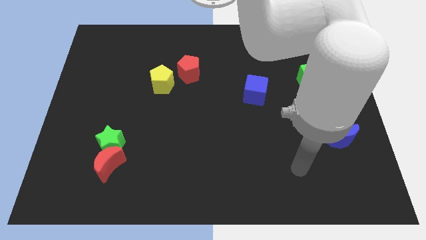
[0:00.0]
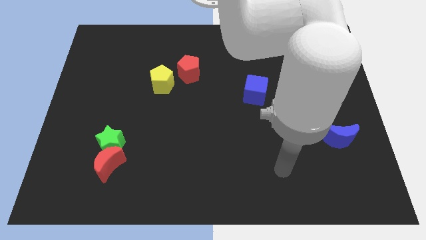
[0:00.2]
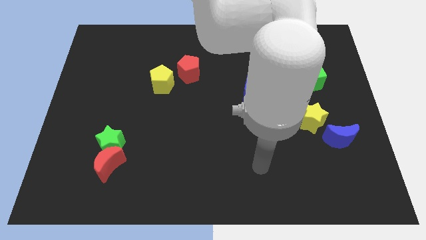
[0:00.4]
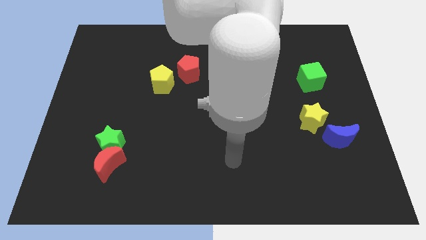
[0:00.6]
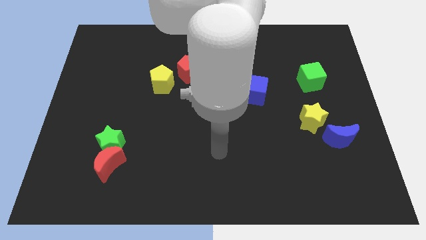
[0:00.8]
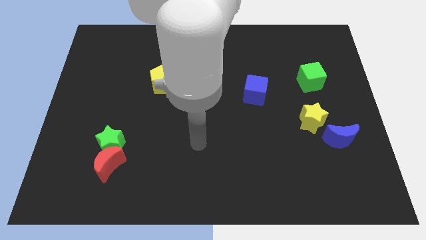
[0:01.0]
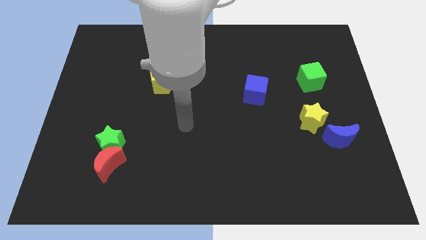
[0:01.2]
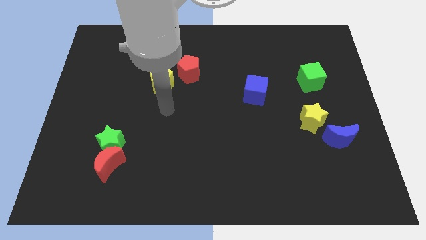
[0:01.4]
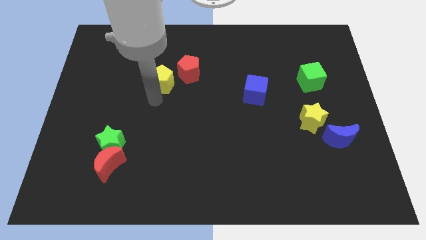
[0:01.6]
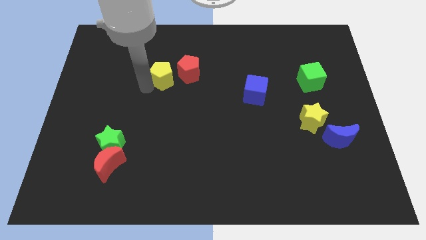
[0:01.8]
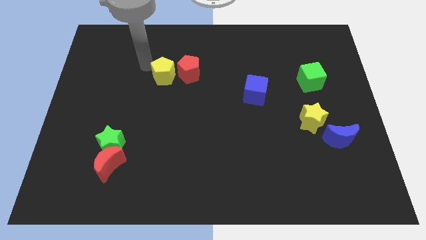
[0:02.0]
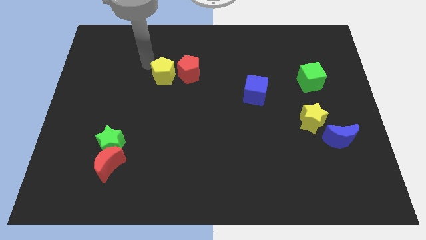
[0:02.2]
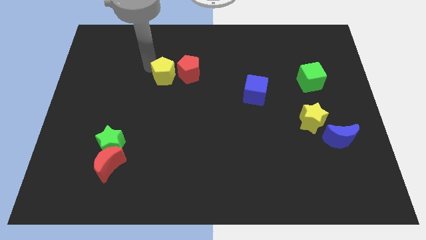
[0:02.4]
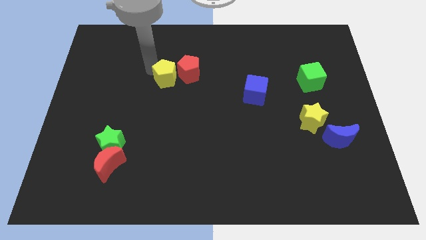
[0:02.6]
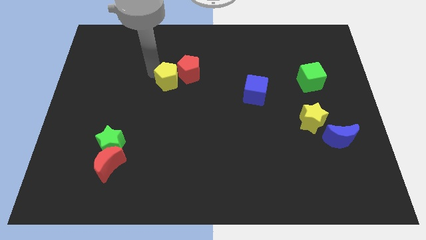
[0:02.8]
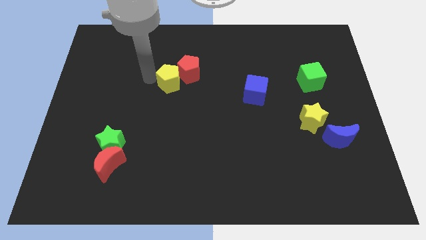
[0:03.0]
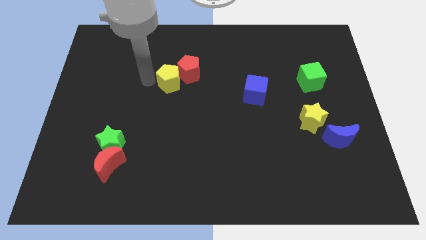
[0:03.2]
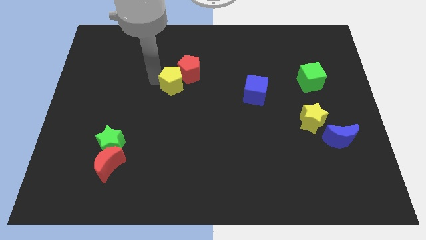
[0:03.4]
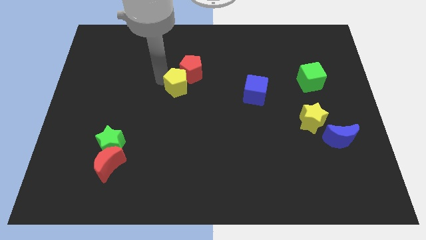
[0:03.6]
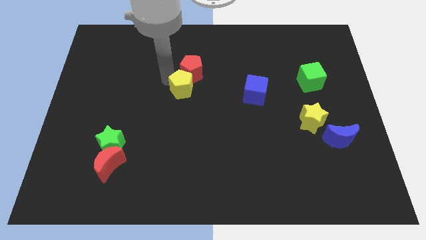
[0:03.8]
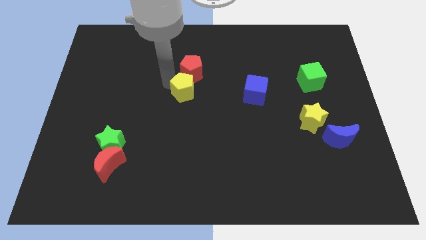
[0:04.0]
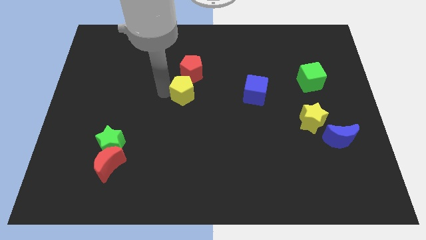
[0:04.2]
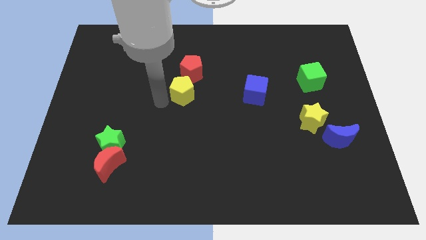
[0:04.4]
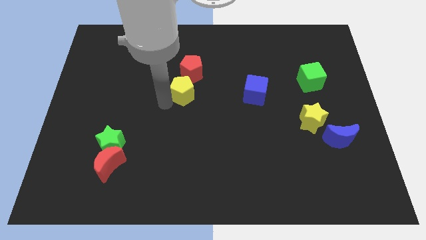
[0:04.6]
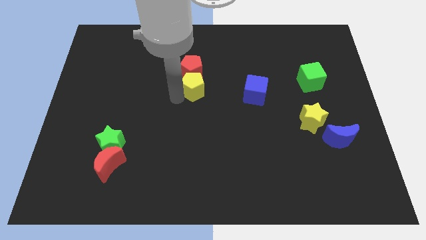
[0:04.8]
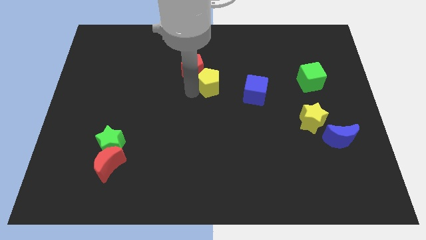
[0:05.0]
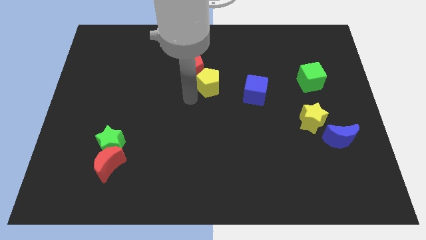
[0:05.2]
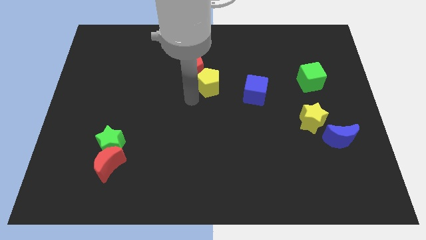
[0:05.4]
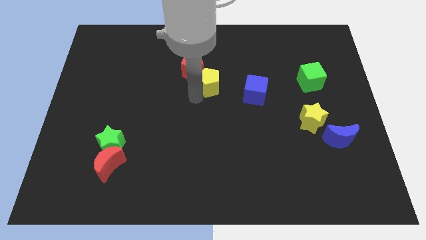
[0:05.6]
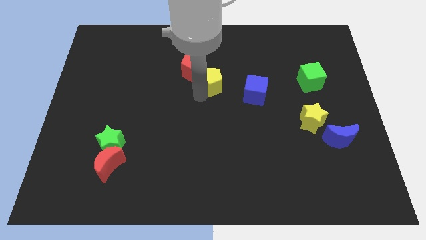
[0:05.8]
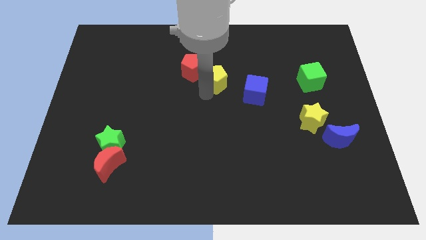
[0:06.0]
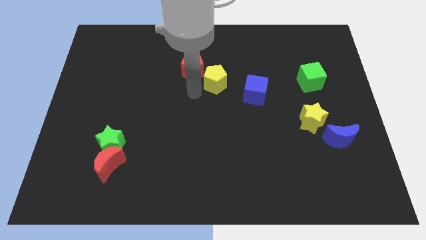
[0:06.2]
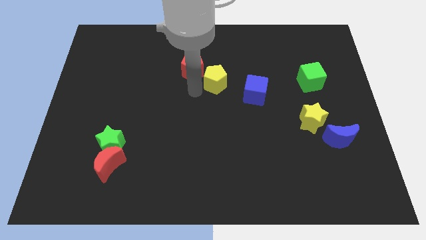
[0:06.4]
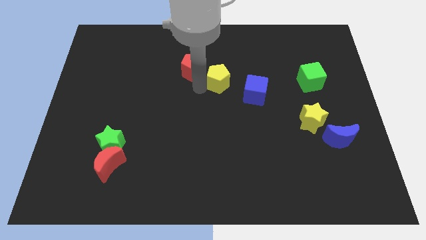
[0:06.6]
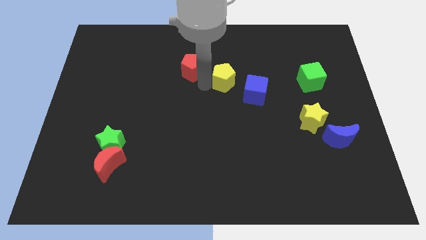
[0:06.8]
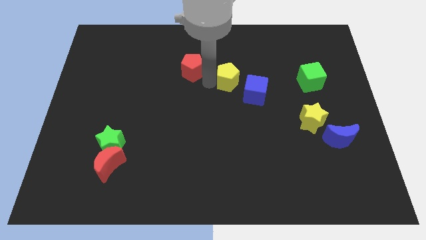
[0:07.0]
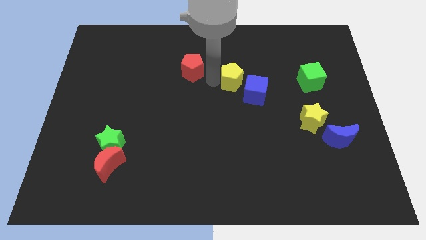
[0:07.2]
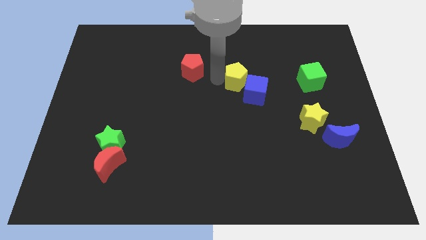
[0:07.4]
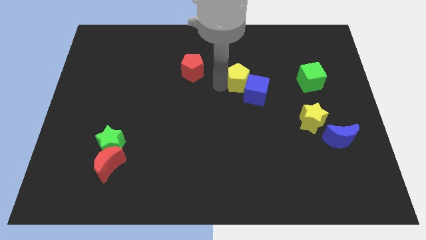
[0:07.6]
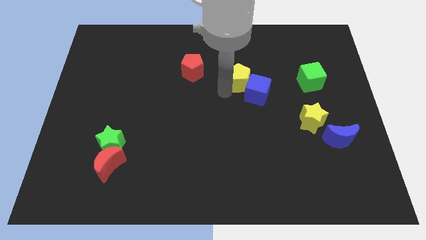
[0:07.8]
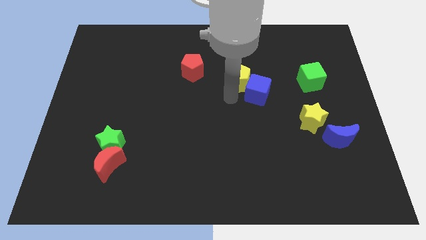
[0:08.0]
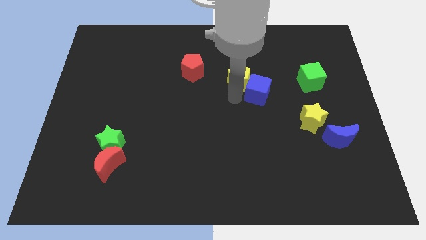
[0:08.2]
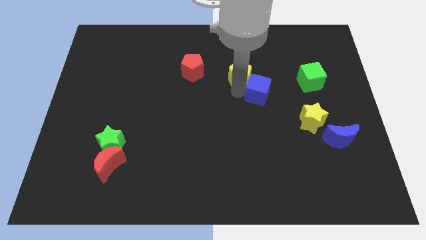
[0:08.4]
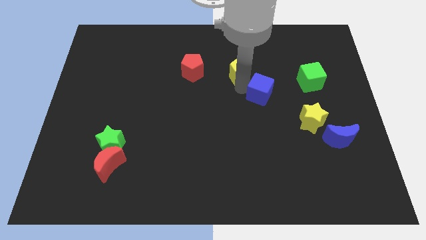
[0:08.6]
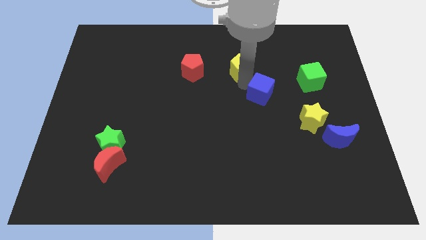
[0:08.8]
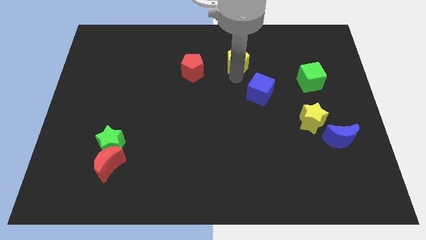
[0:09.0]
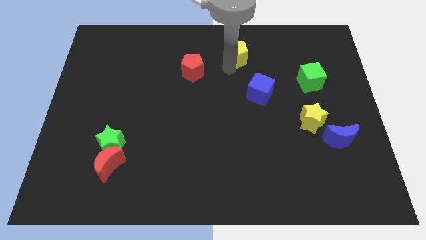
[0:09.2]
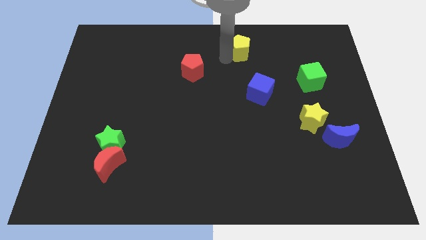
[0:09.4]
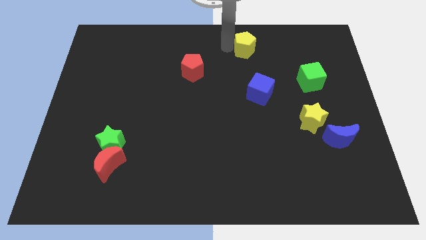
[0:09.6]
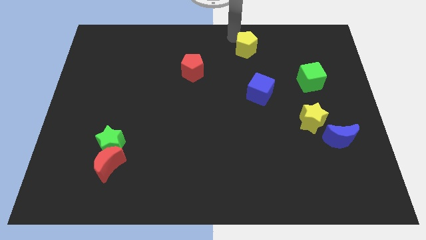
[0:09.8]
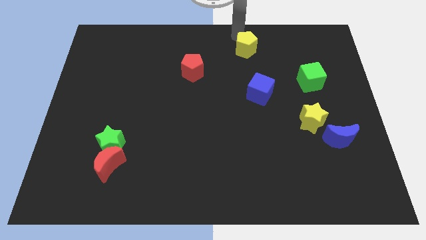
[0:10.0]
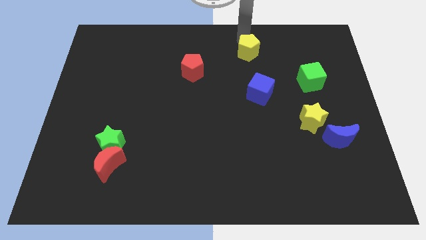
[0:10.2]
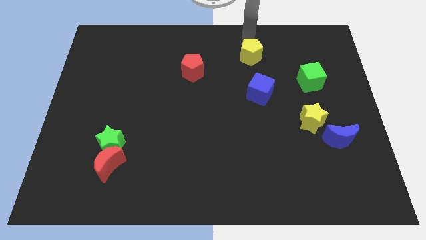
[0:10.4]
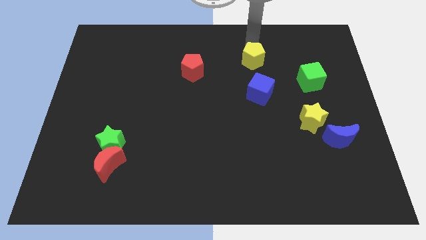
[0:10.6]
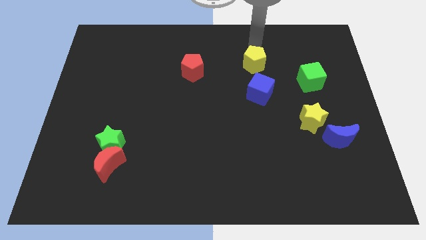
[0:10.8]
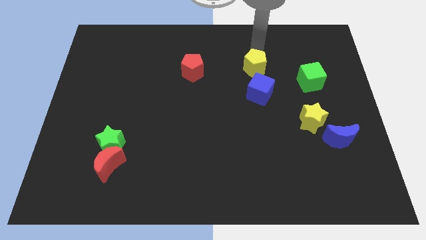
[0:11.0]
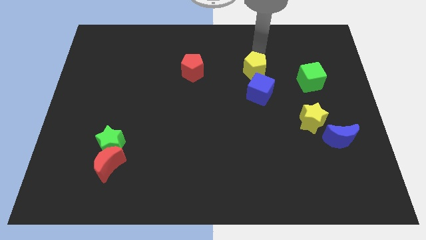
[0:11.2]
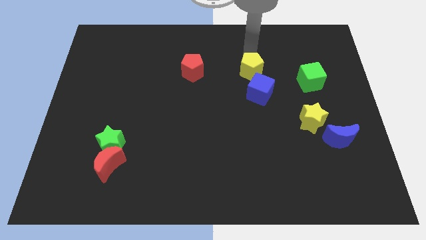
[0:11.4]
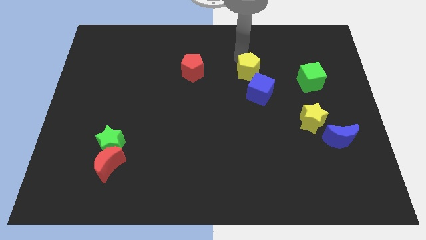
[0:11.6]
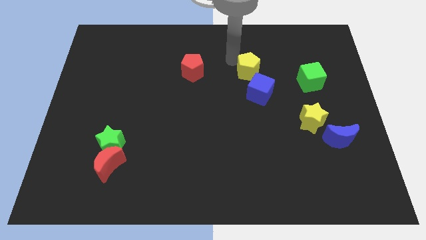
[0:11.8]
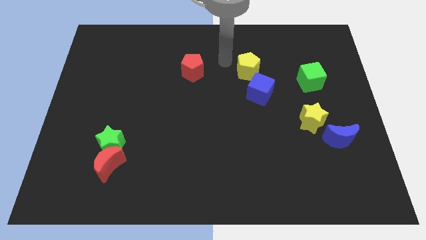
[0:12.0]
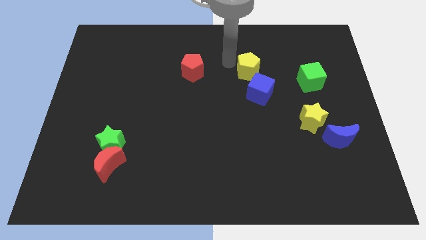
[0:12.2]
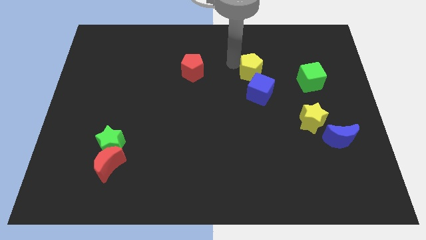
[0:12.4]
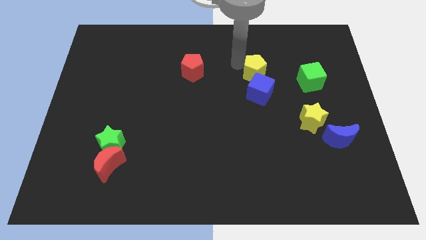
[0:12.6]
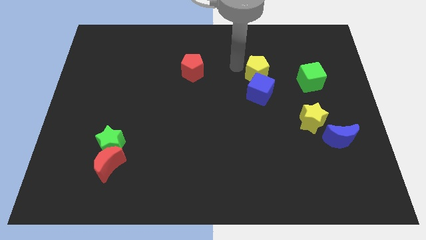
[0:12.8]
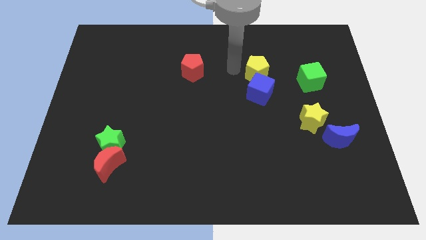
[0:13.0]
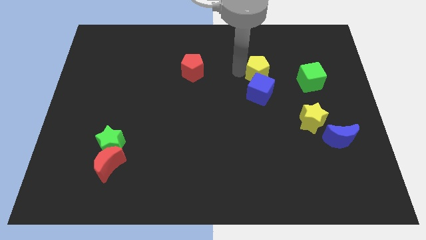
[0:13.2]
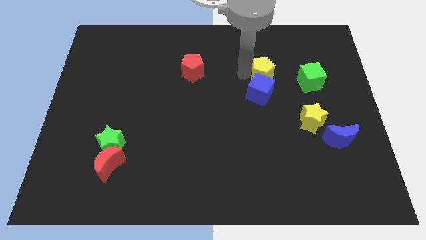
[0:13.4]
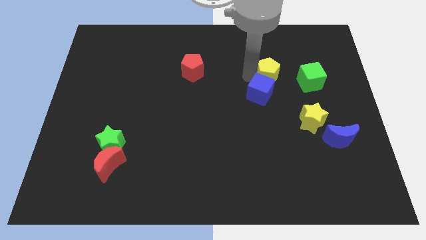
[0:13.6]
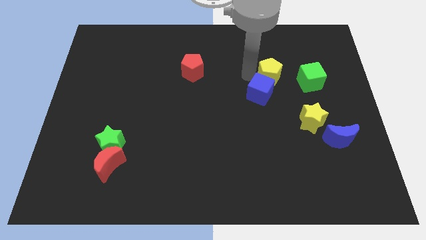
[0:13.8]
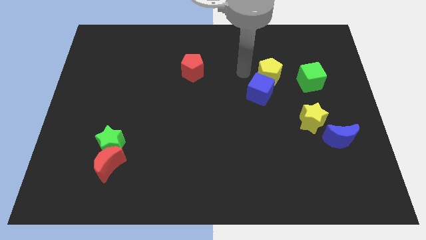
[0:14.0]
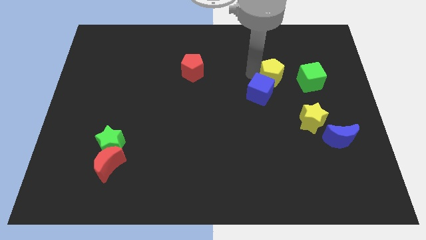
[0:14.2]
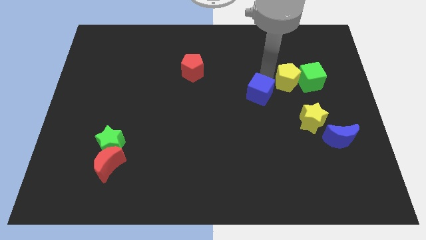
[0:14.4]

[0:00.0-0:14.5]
put the yellow pentagon close to the green cube

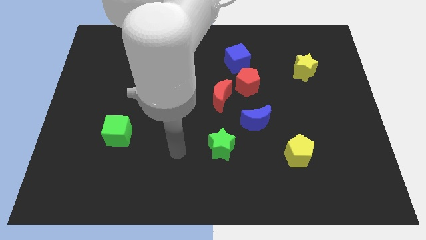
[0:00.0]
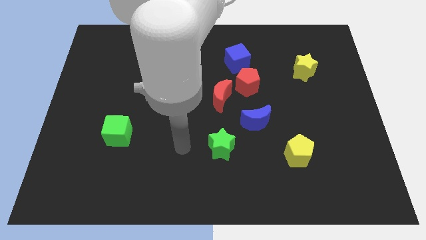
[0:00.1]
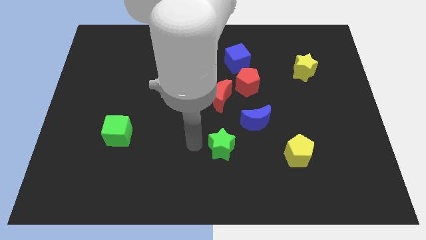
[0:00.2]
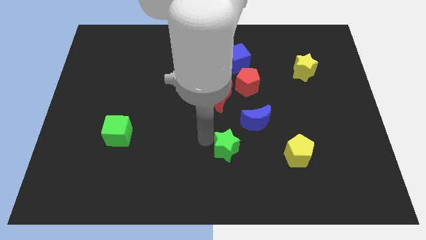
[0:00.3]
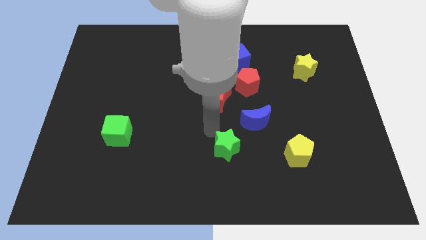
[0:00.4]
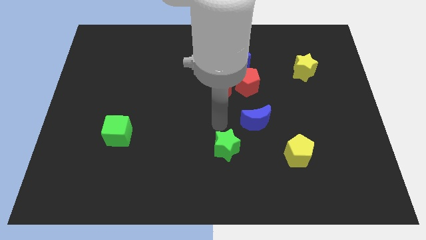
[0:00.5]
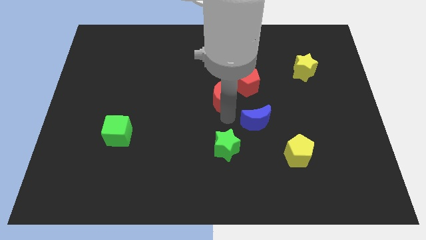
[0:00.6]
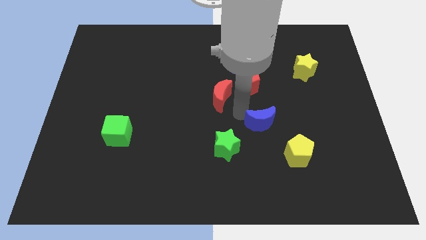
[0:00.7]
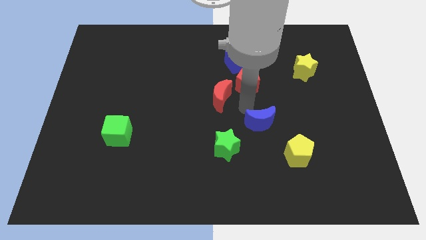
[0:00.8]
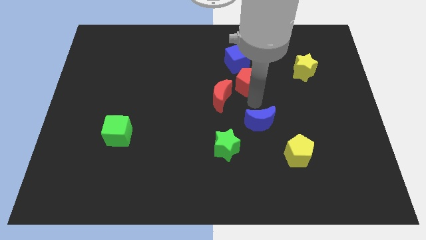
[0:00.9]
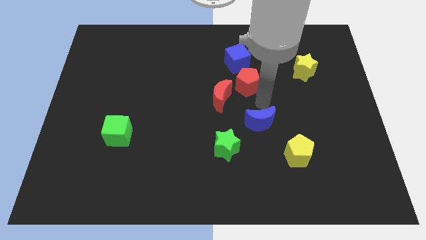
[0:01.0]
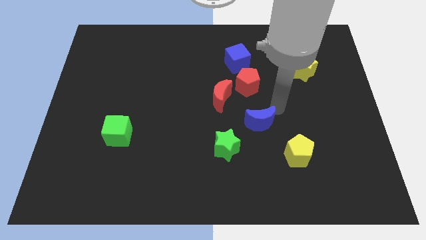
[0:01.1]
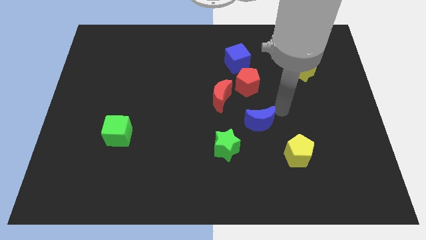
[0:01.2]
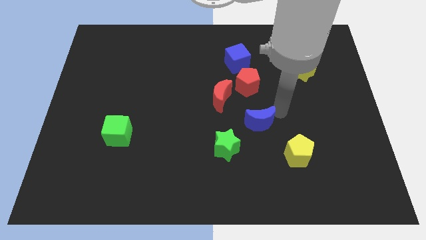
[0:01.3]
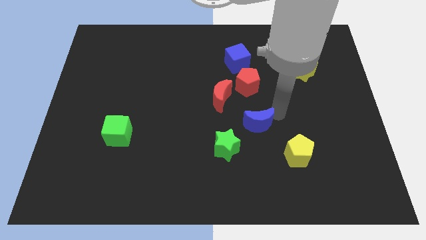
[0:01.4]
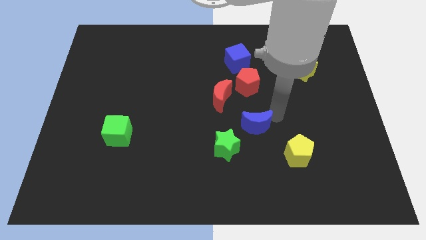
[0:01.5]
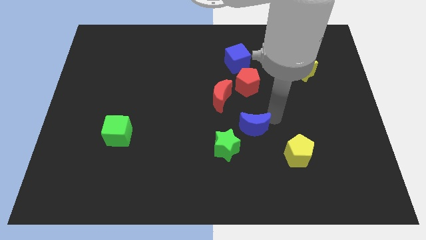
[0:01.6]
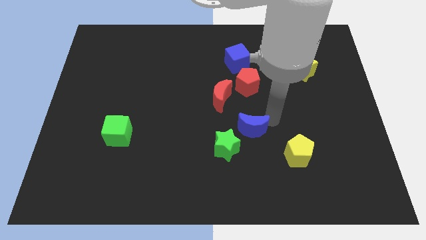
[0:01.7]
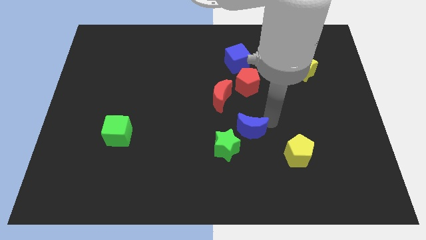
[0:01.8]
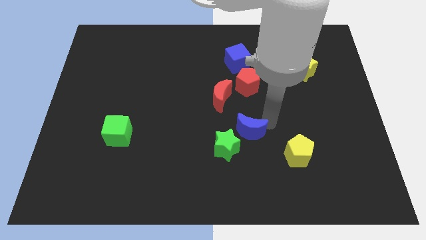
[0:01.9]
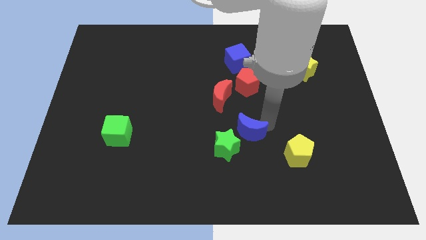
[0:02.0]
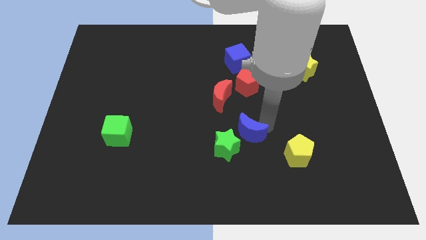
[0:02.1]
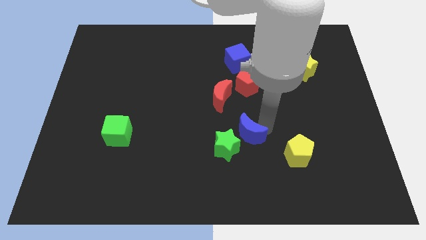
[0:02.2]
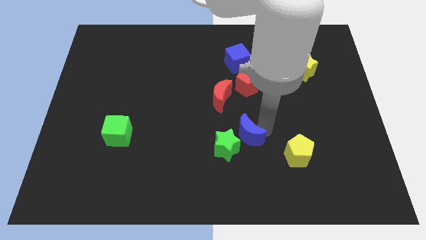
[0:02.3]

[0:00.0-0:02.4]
push the blue moon to the green star
